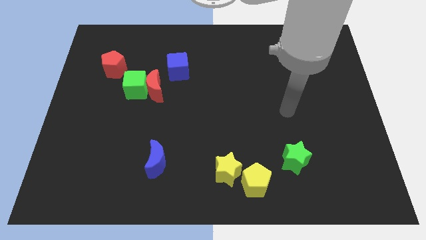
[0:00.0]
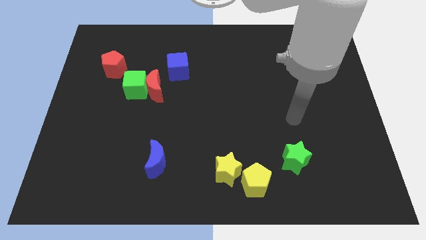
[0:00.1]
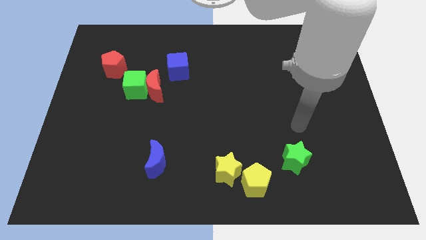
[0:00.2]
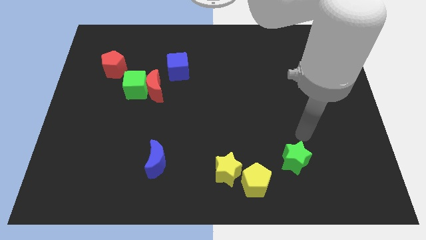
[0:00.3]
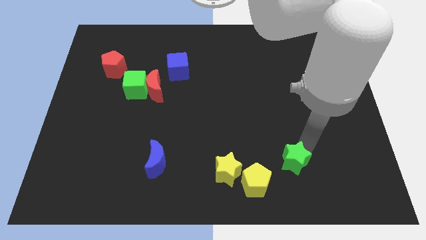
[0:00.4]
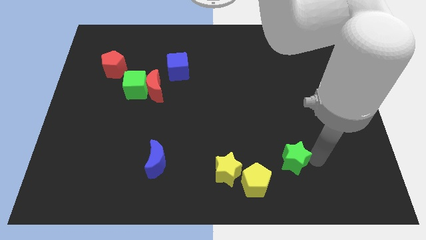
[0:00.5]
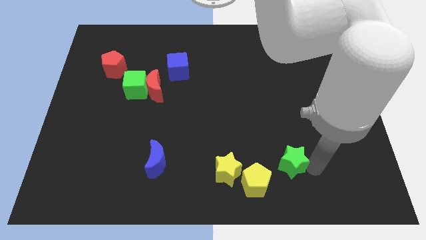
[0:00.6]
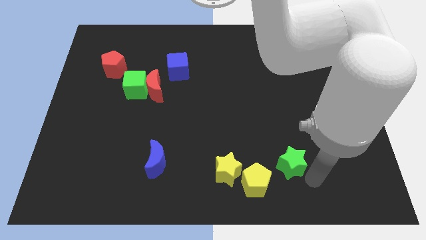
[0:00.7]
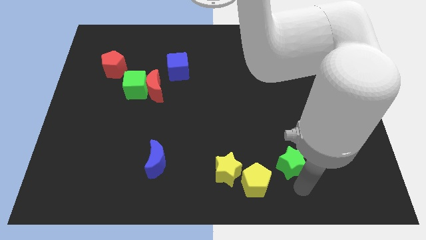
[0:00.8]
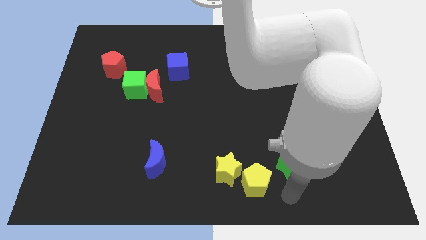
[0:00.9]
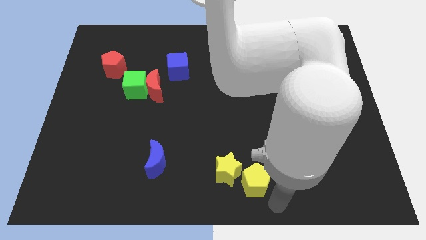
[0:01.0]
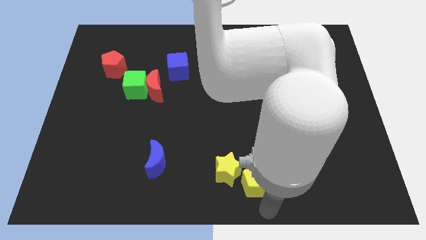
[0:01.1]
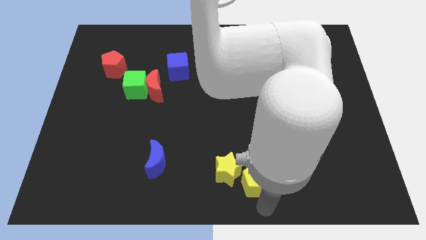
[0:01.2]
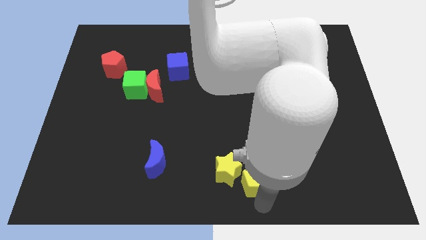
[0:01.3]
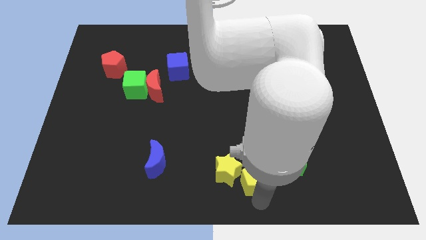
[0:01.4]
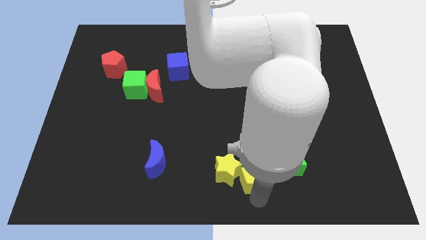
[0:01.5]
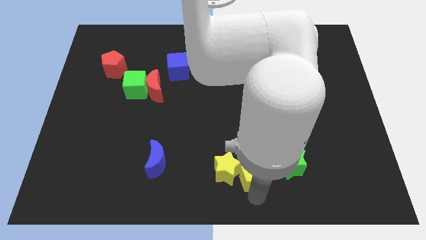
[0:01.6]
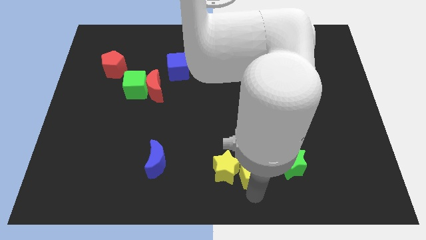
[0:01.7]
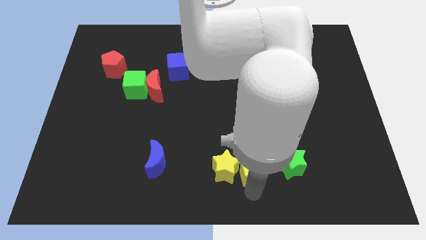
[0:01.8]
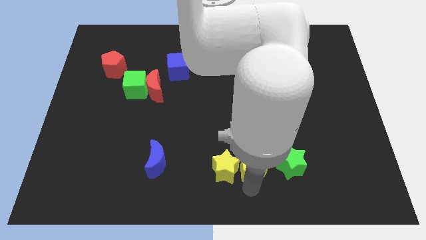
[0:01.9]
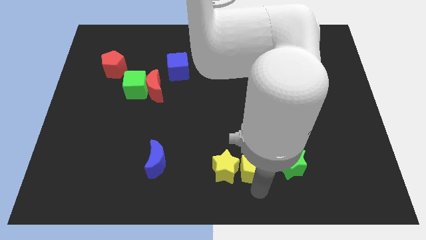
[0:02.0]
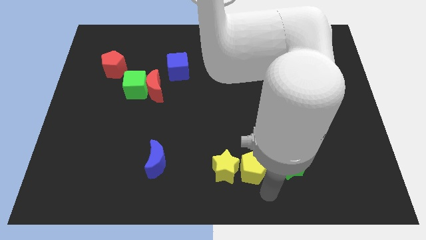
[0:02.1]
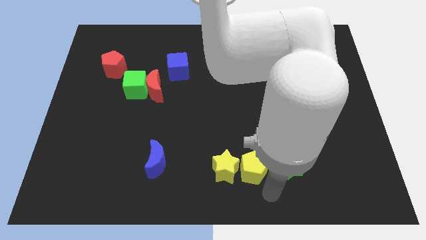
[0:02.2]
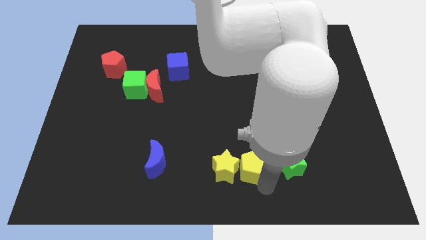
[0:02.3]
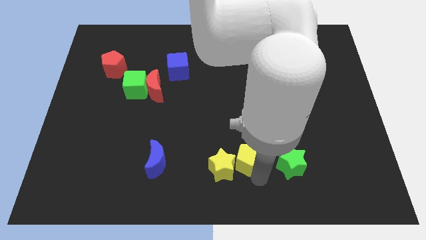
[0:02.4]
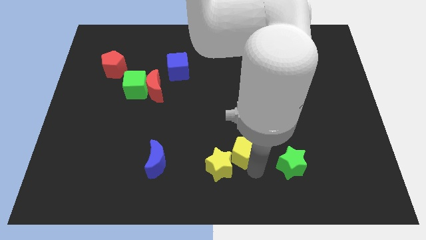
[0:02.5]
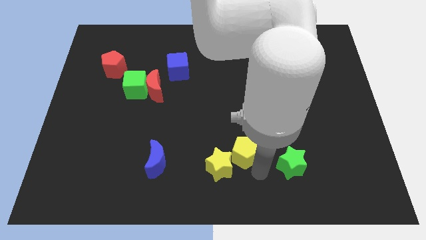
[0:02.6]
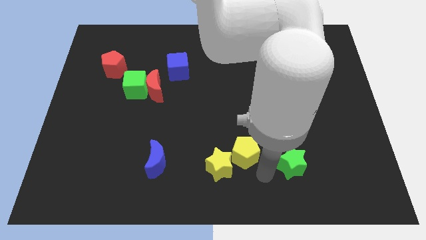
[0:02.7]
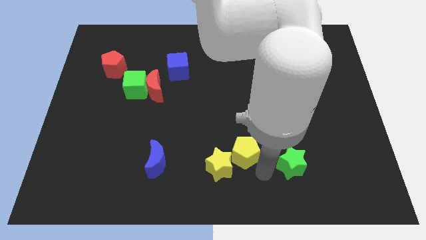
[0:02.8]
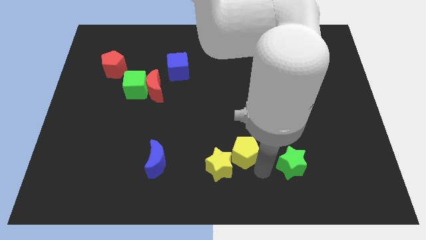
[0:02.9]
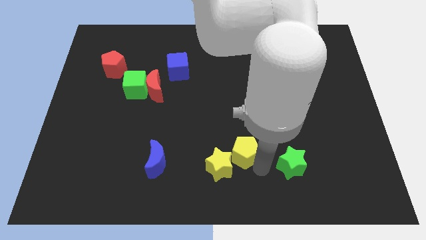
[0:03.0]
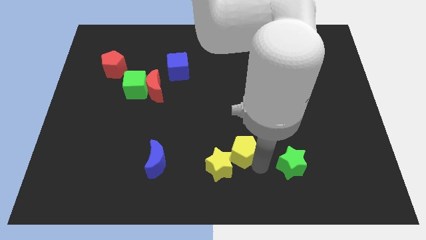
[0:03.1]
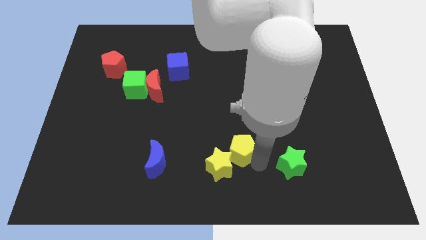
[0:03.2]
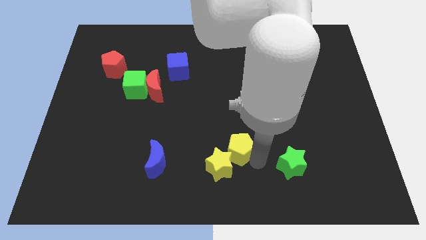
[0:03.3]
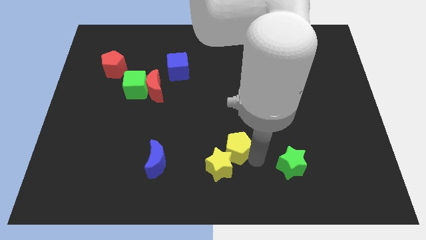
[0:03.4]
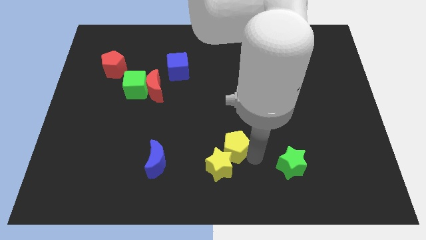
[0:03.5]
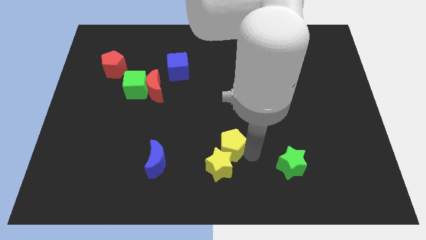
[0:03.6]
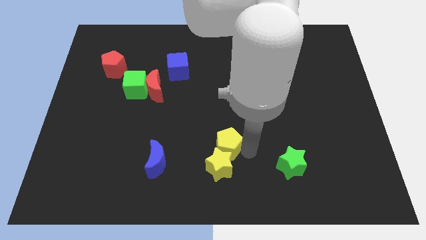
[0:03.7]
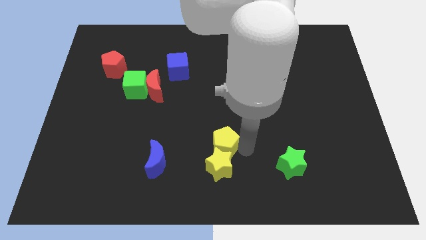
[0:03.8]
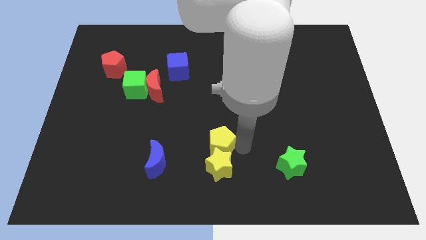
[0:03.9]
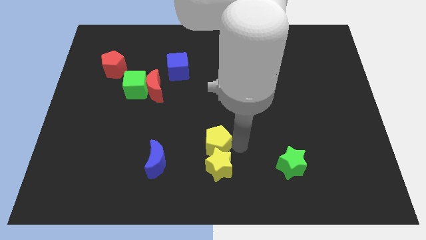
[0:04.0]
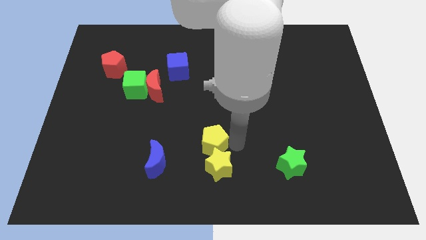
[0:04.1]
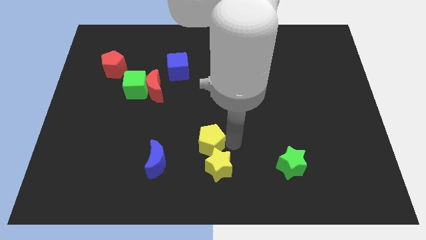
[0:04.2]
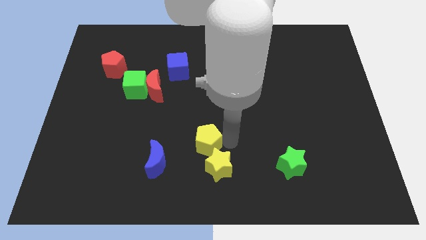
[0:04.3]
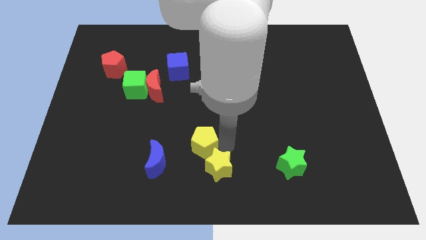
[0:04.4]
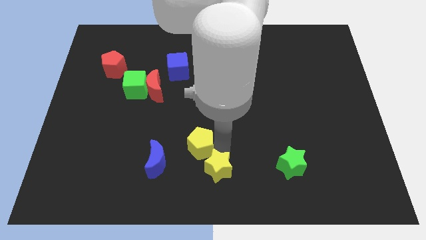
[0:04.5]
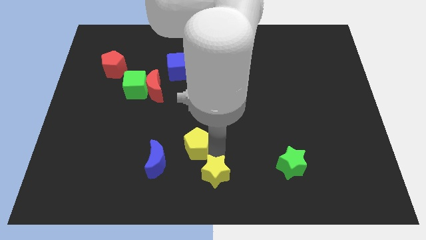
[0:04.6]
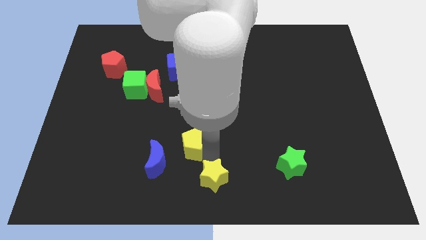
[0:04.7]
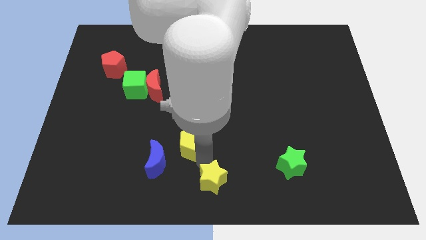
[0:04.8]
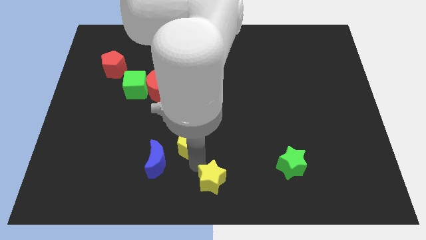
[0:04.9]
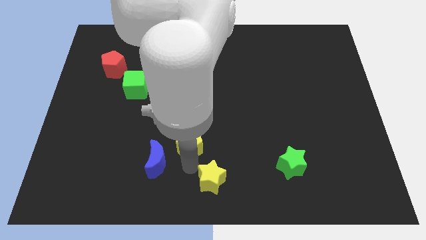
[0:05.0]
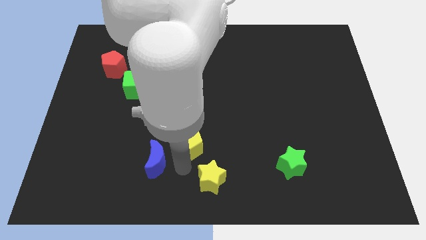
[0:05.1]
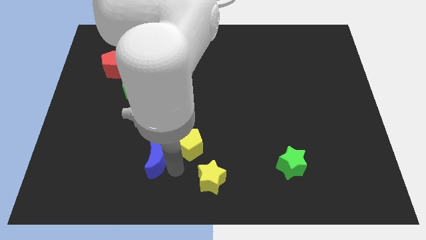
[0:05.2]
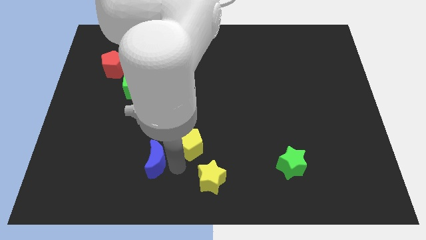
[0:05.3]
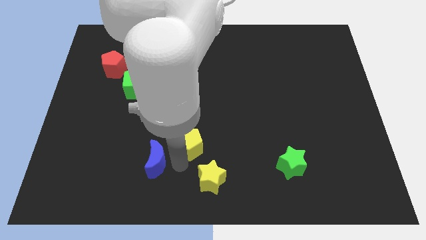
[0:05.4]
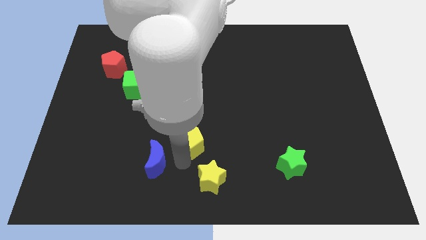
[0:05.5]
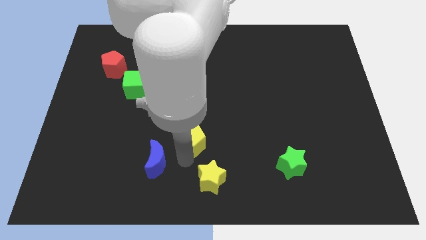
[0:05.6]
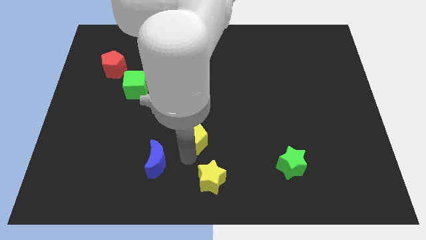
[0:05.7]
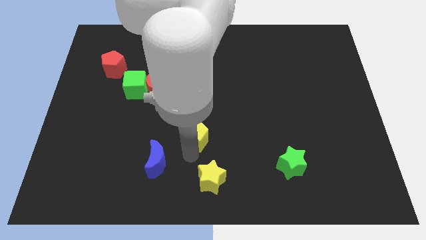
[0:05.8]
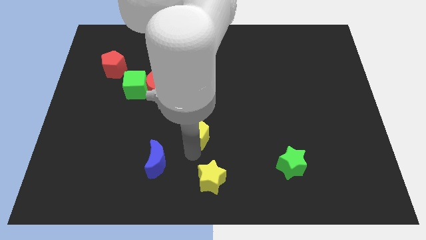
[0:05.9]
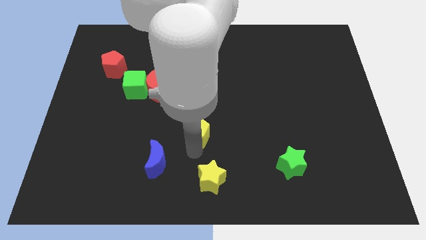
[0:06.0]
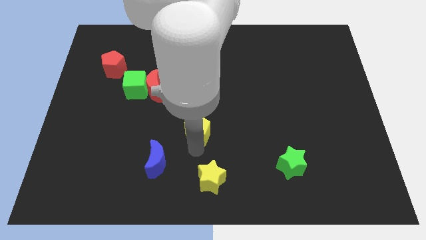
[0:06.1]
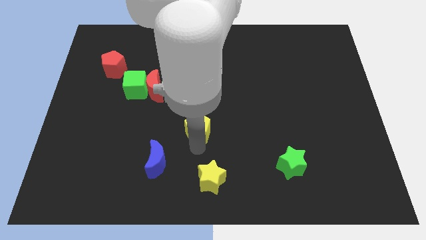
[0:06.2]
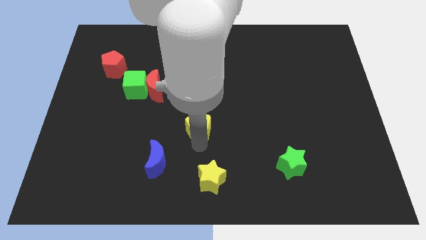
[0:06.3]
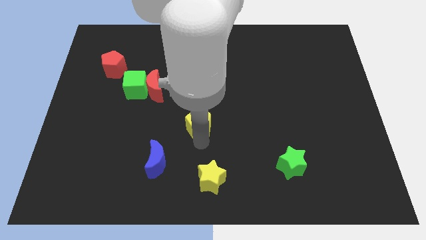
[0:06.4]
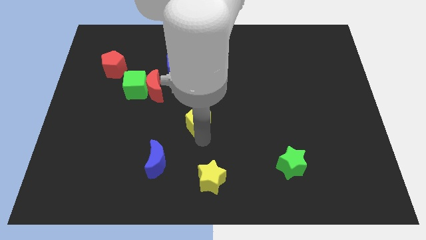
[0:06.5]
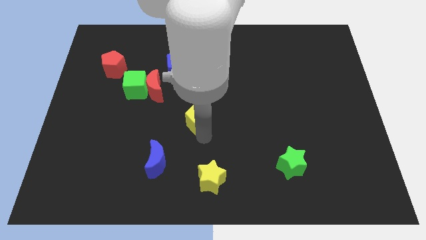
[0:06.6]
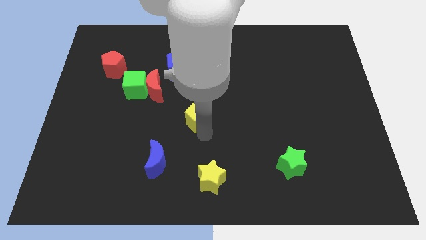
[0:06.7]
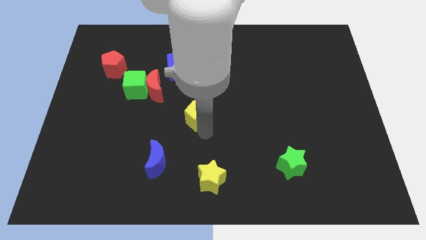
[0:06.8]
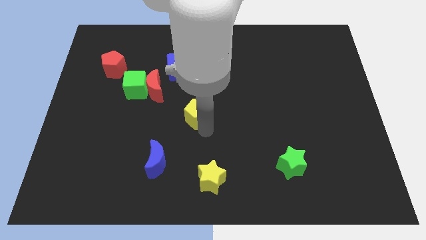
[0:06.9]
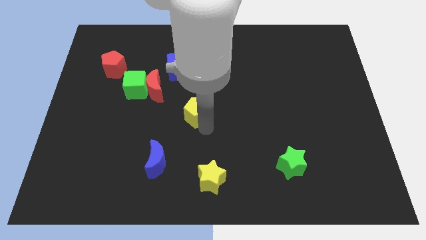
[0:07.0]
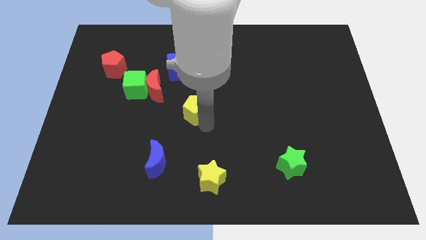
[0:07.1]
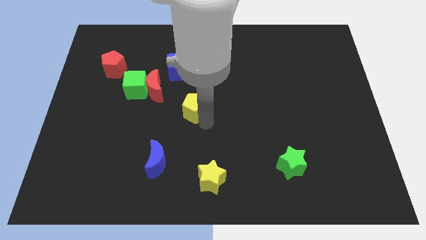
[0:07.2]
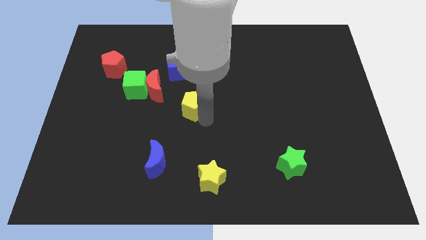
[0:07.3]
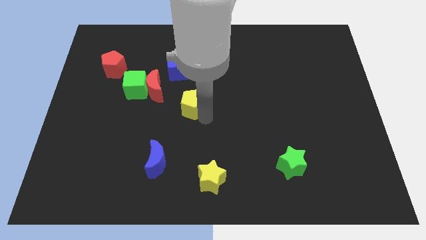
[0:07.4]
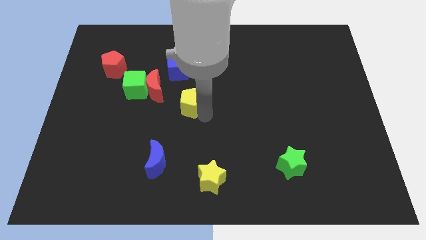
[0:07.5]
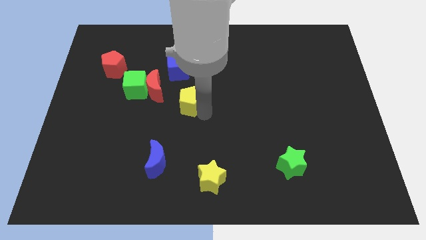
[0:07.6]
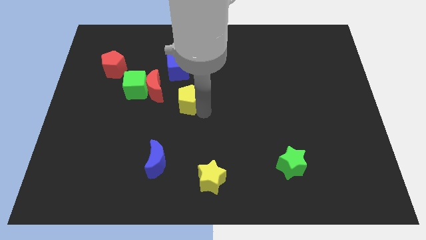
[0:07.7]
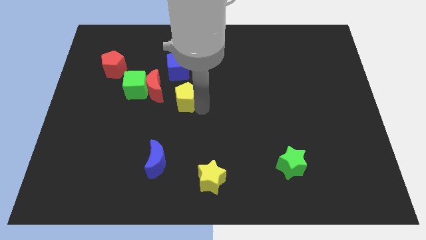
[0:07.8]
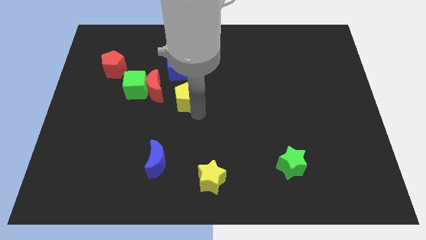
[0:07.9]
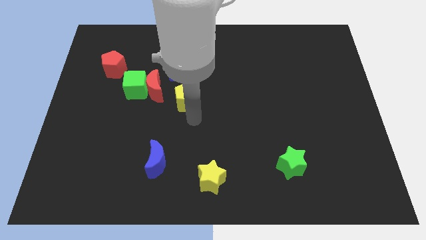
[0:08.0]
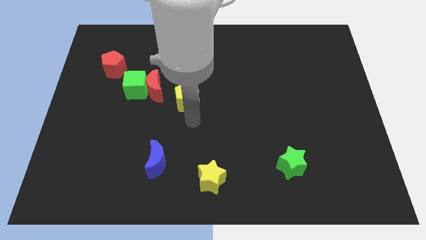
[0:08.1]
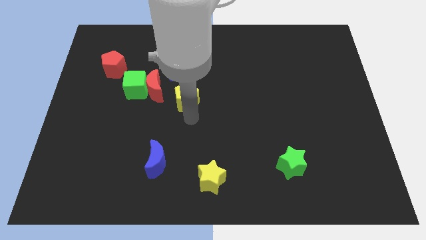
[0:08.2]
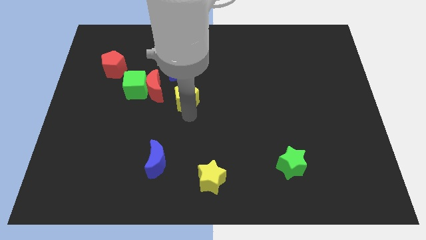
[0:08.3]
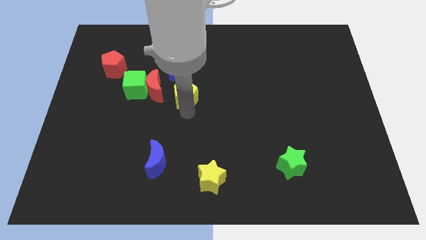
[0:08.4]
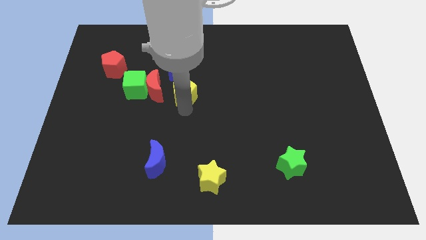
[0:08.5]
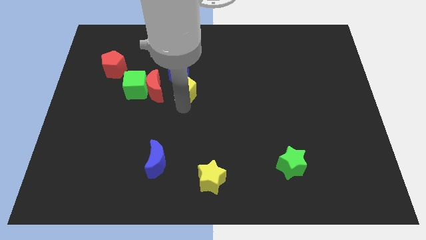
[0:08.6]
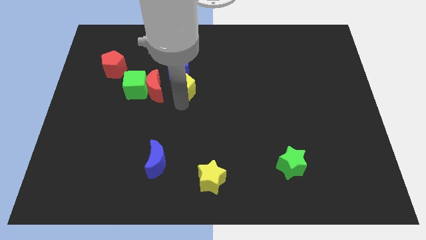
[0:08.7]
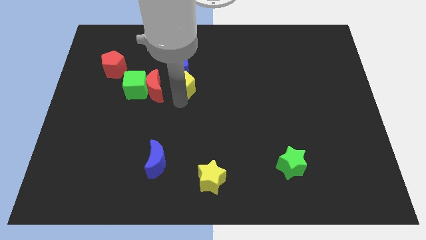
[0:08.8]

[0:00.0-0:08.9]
put the yellow pentagon close to the blue cube
